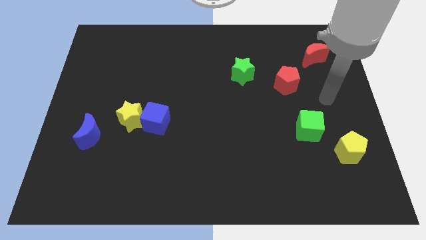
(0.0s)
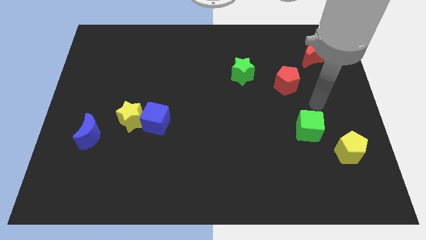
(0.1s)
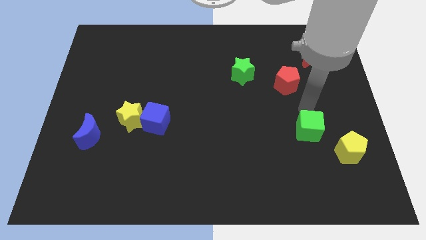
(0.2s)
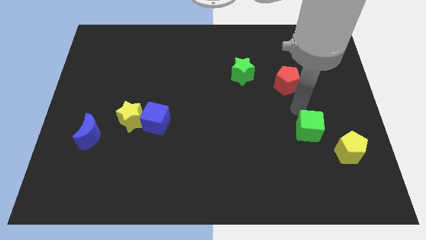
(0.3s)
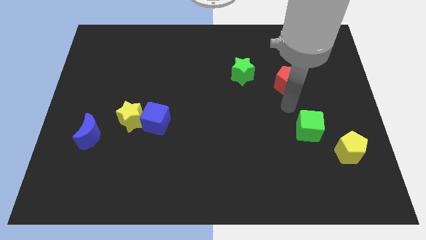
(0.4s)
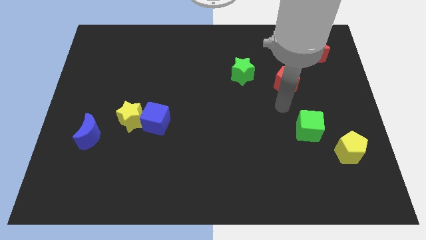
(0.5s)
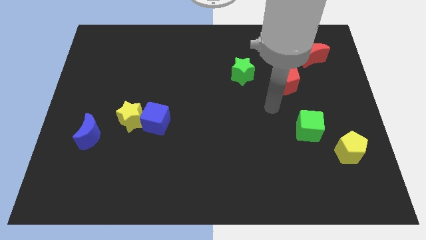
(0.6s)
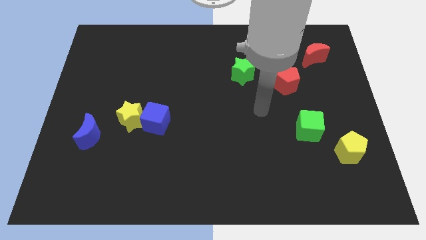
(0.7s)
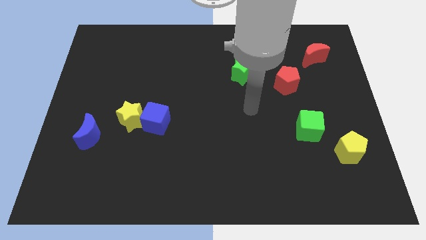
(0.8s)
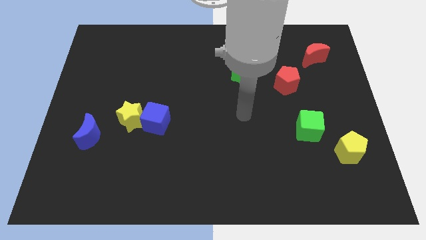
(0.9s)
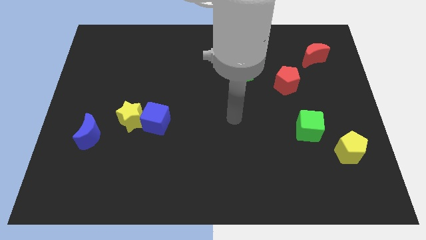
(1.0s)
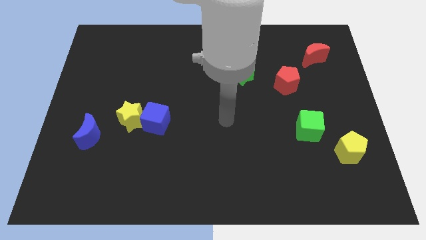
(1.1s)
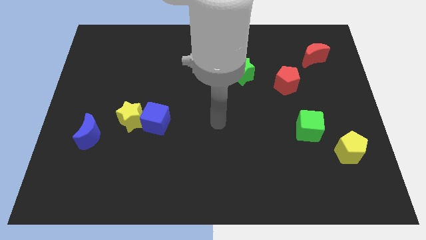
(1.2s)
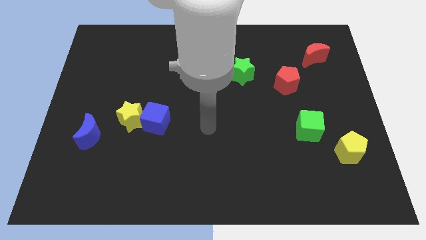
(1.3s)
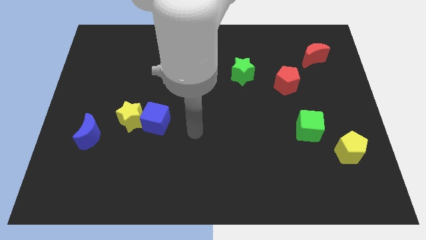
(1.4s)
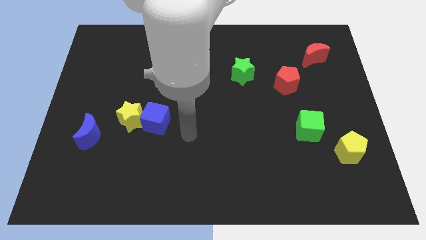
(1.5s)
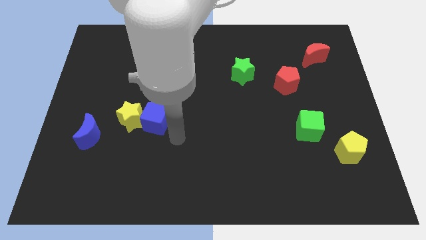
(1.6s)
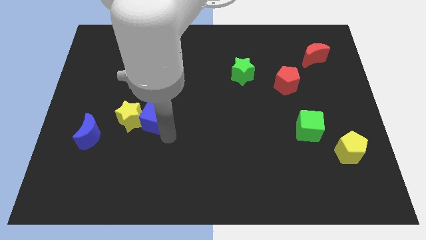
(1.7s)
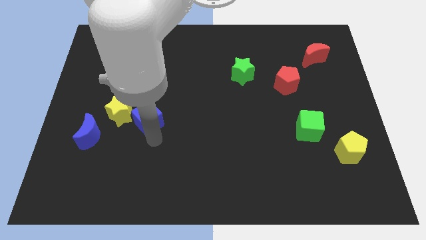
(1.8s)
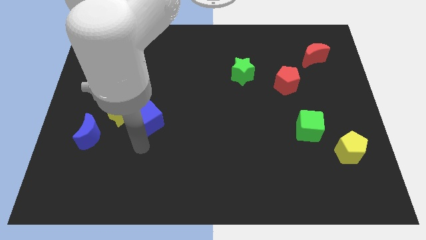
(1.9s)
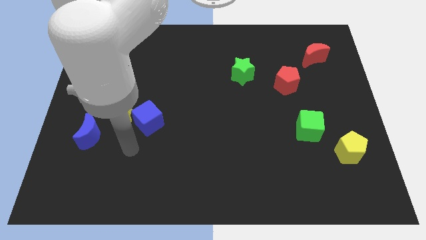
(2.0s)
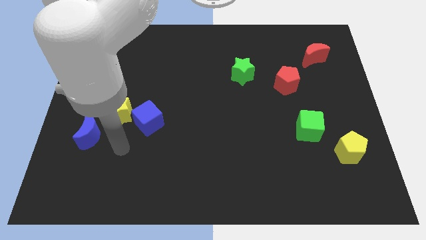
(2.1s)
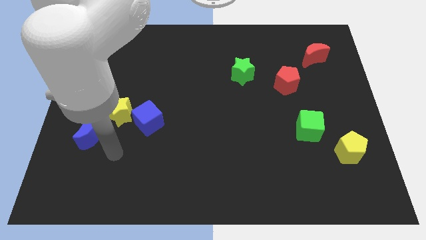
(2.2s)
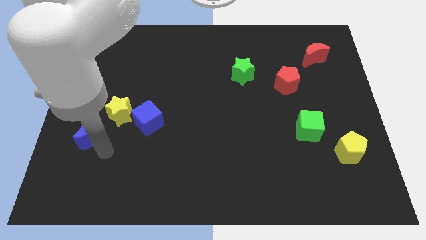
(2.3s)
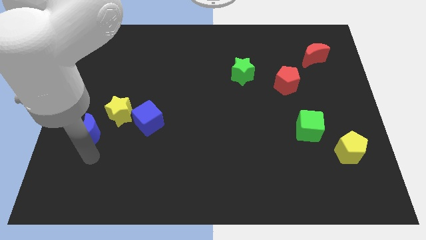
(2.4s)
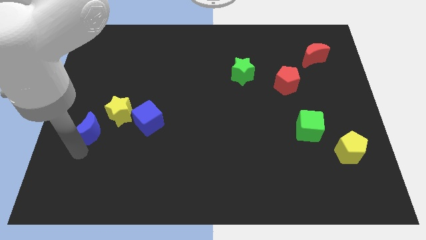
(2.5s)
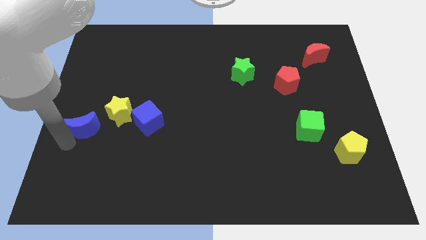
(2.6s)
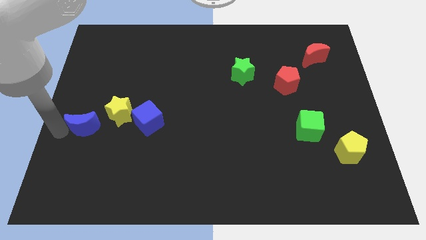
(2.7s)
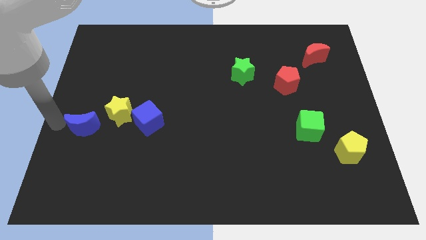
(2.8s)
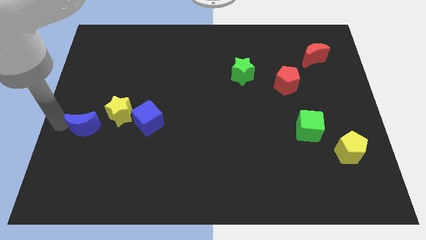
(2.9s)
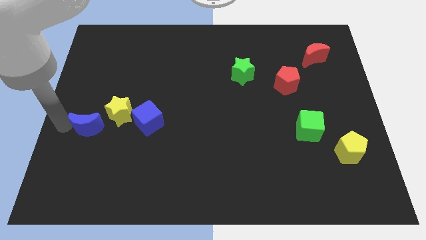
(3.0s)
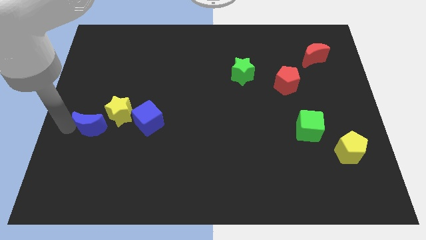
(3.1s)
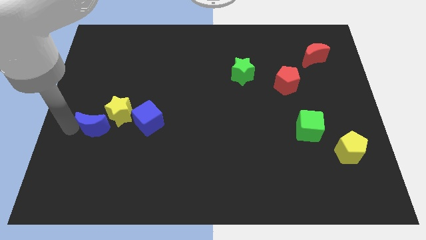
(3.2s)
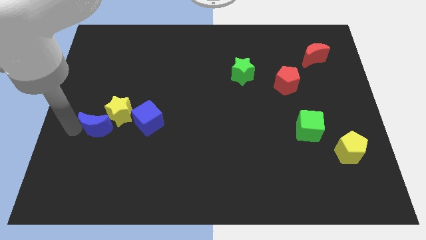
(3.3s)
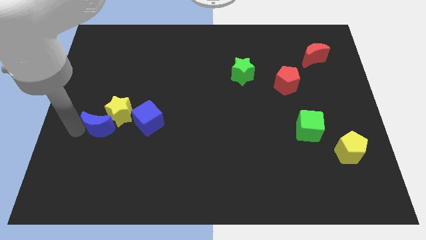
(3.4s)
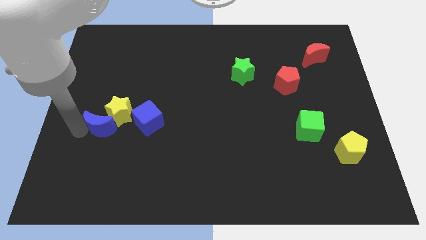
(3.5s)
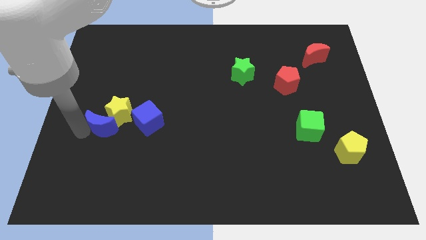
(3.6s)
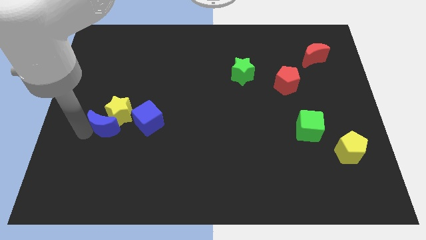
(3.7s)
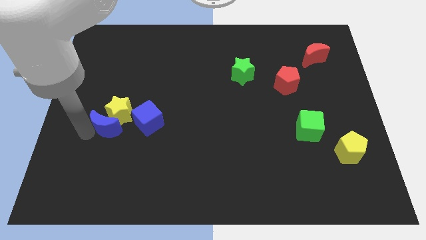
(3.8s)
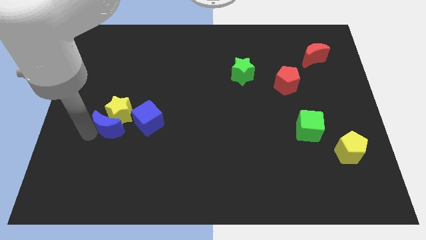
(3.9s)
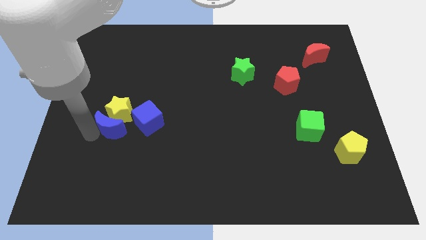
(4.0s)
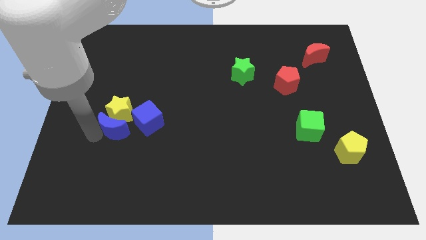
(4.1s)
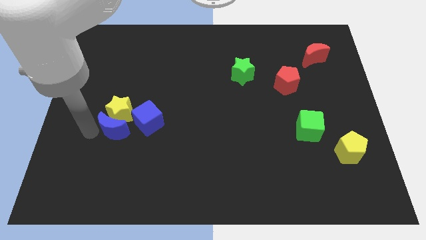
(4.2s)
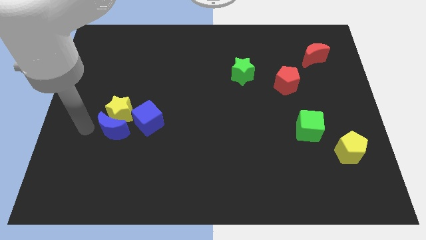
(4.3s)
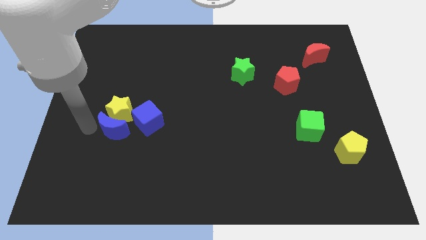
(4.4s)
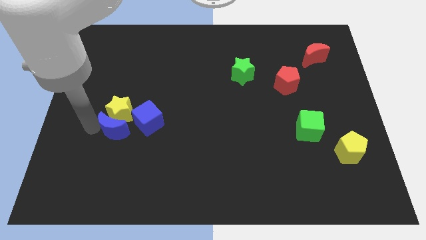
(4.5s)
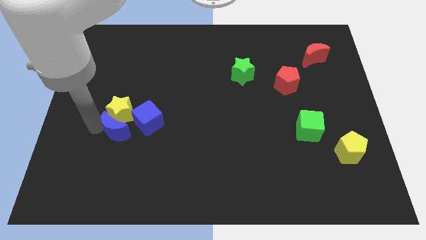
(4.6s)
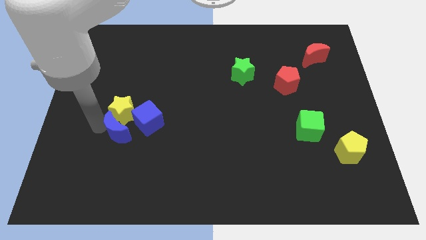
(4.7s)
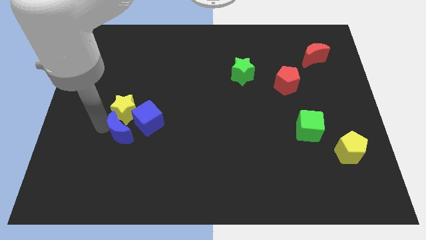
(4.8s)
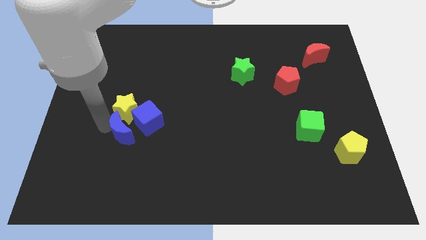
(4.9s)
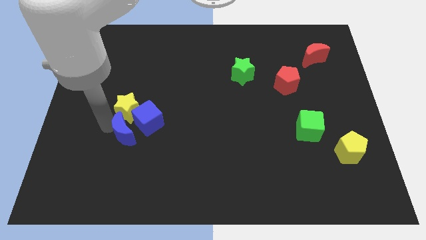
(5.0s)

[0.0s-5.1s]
push the blue moon towards the blue cube

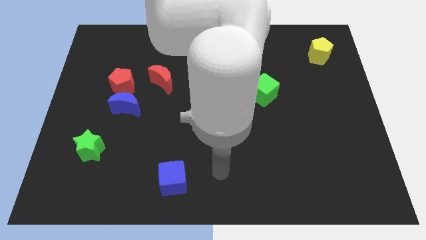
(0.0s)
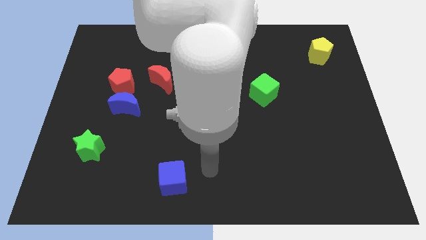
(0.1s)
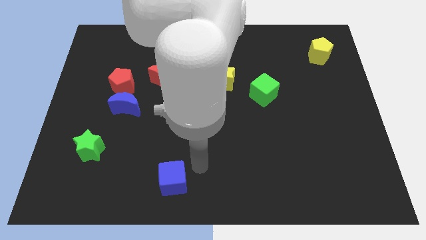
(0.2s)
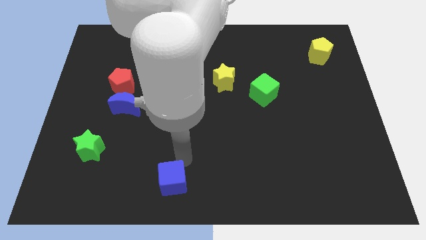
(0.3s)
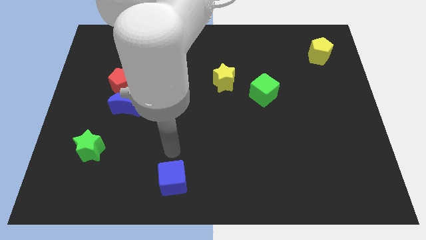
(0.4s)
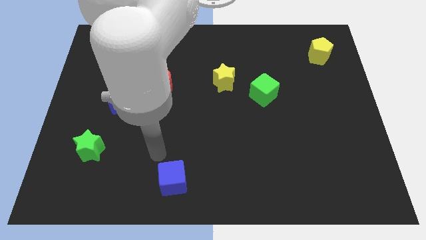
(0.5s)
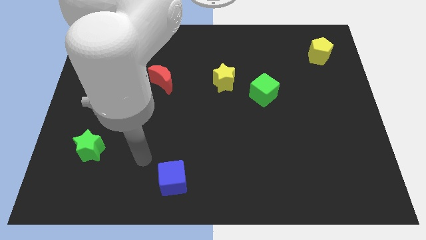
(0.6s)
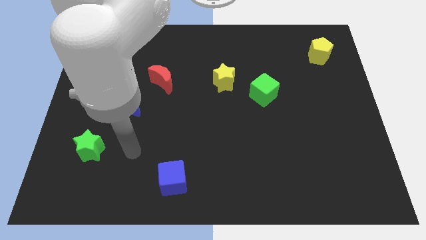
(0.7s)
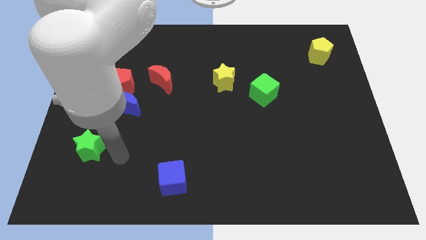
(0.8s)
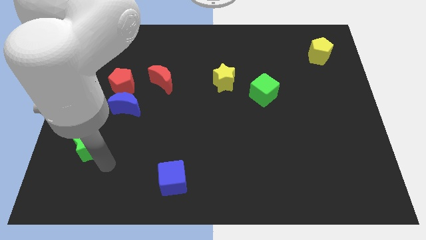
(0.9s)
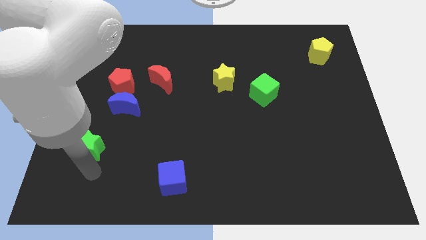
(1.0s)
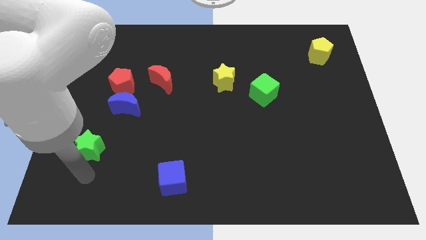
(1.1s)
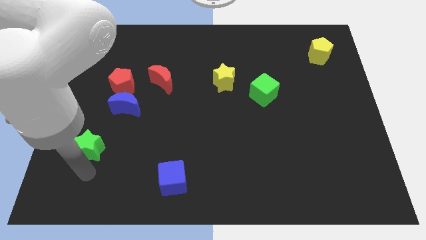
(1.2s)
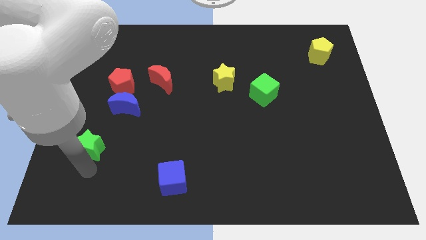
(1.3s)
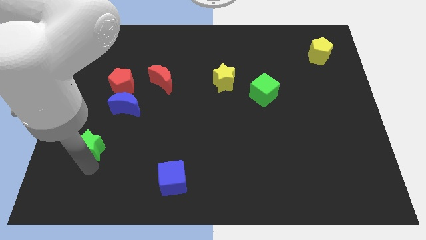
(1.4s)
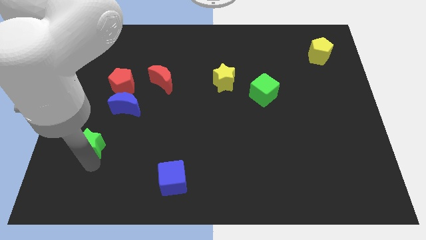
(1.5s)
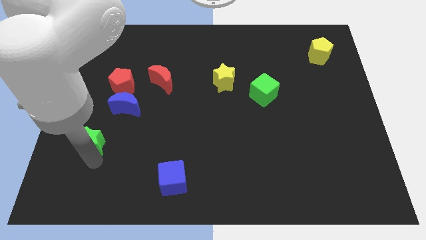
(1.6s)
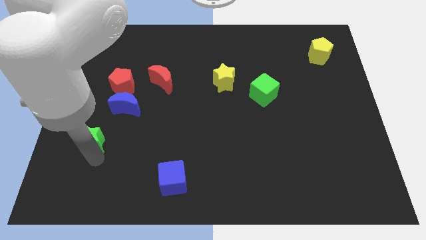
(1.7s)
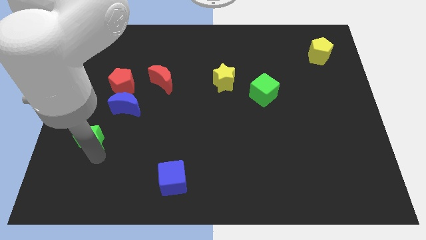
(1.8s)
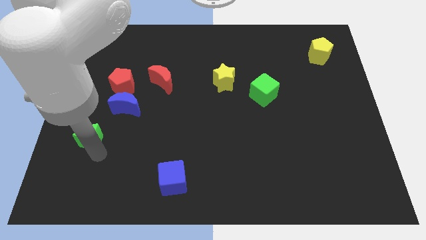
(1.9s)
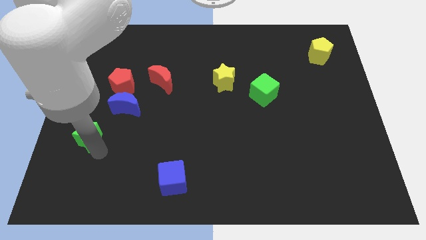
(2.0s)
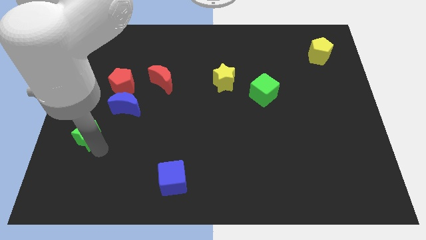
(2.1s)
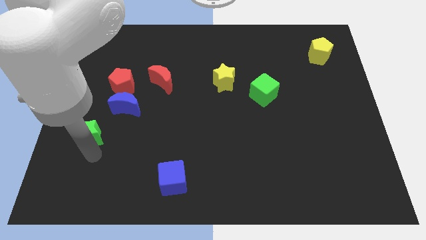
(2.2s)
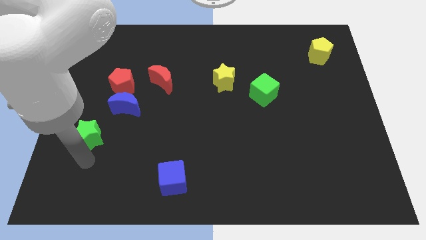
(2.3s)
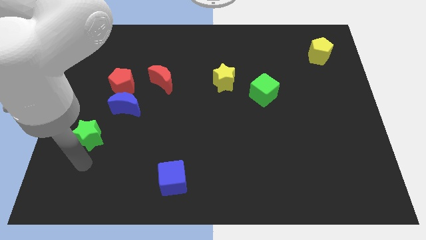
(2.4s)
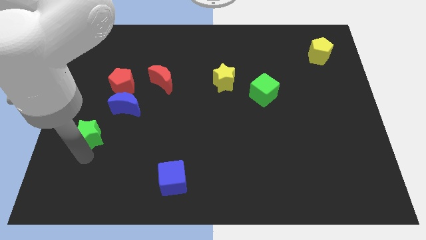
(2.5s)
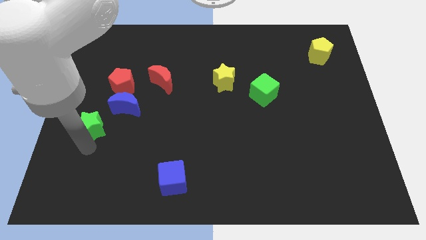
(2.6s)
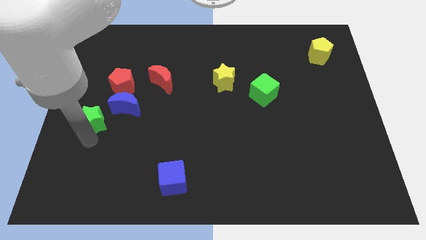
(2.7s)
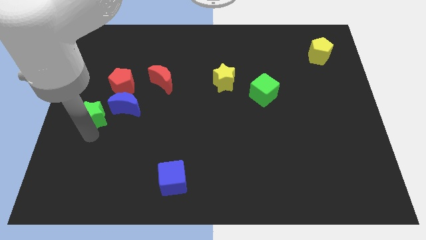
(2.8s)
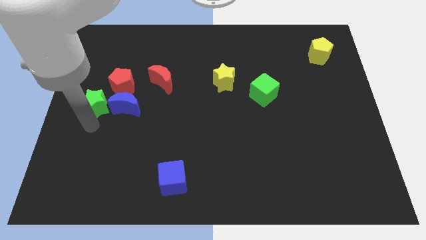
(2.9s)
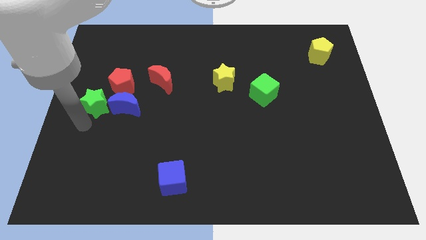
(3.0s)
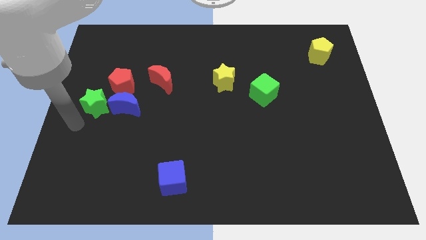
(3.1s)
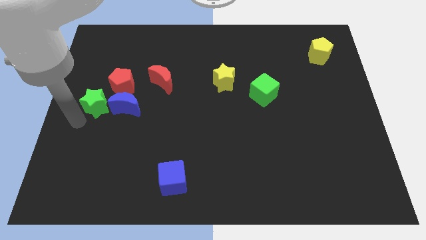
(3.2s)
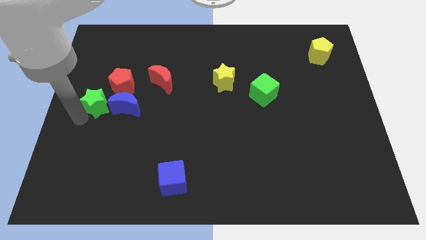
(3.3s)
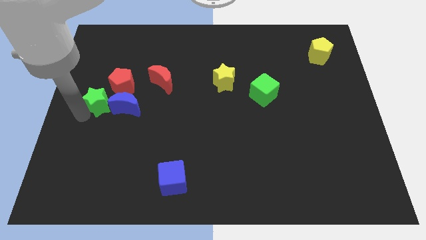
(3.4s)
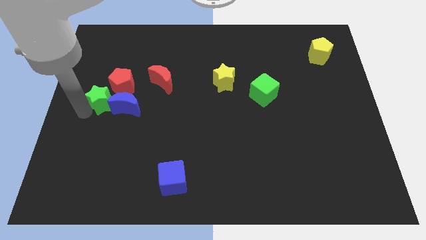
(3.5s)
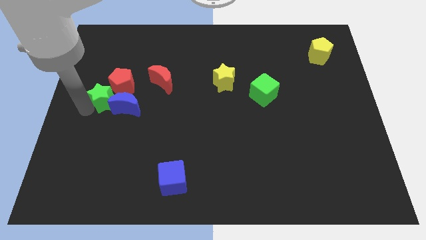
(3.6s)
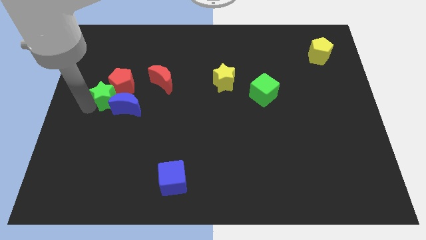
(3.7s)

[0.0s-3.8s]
push the green star next to the red pentagon
